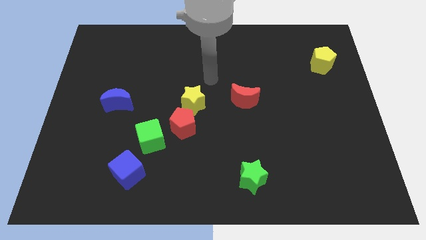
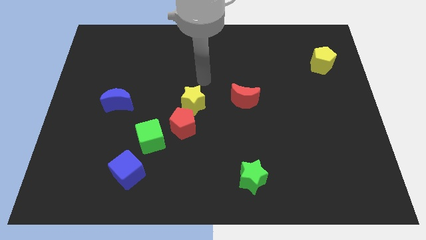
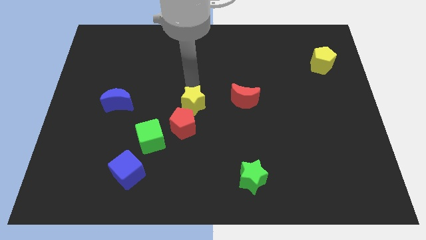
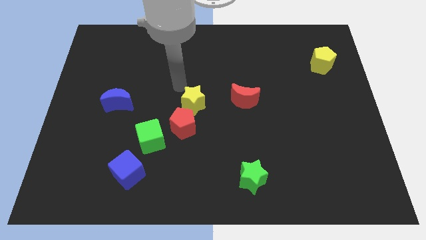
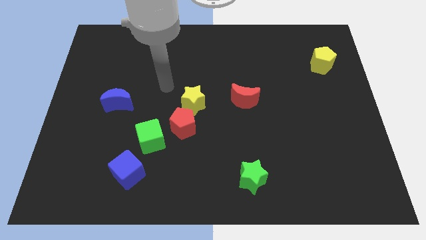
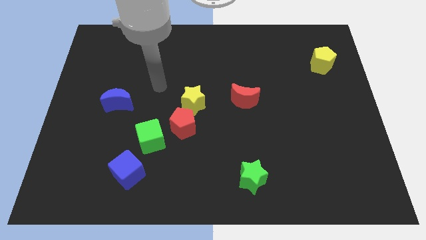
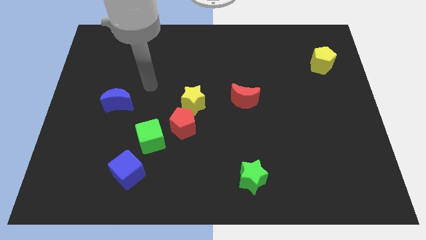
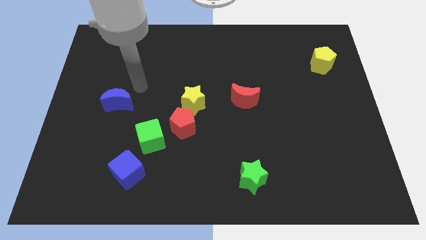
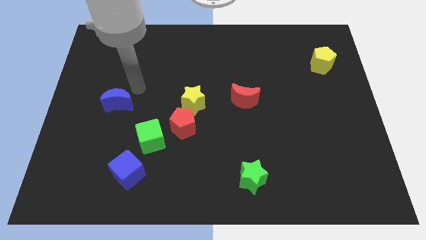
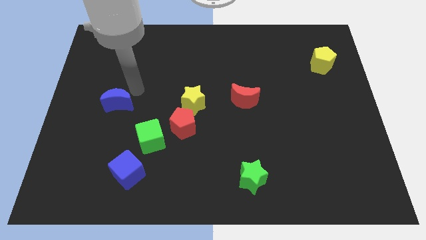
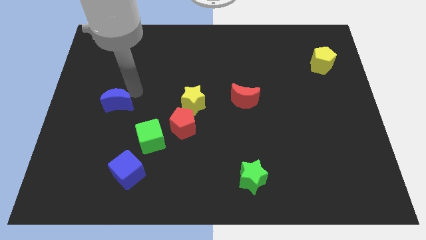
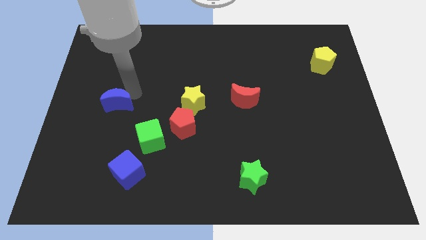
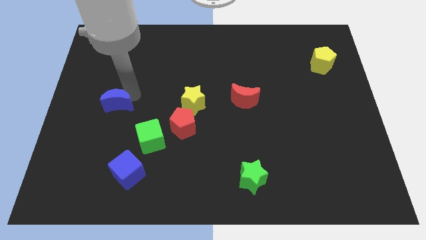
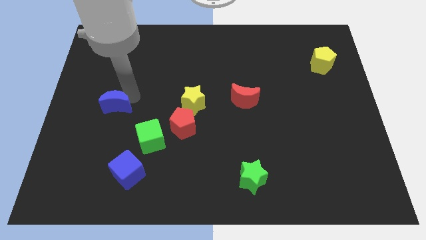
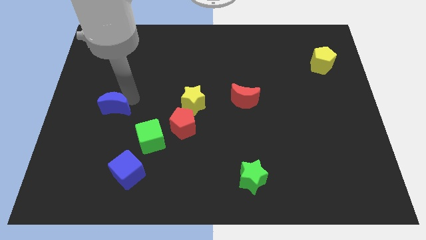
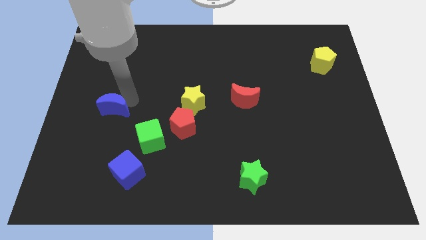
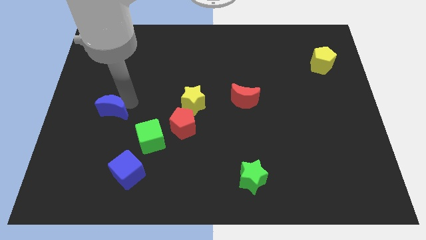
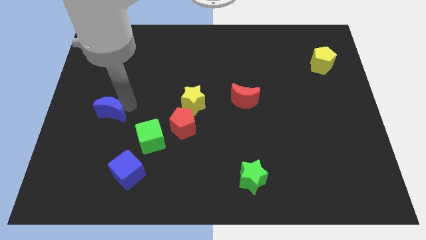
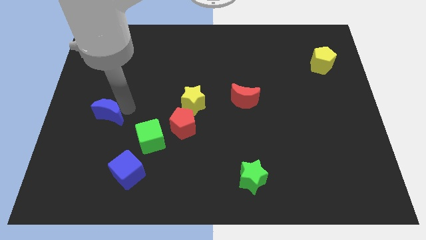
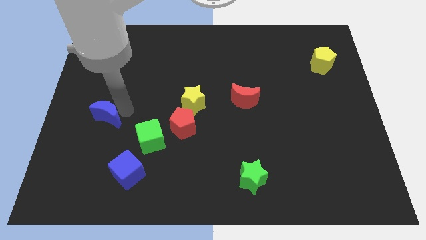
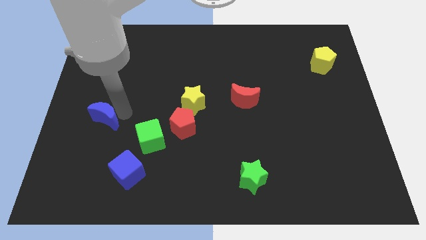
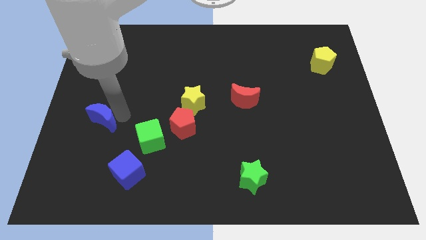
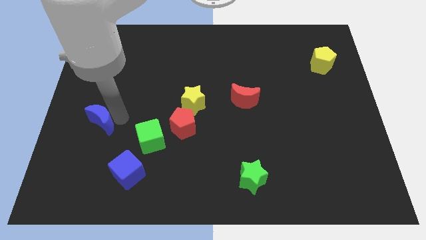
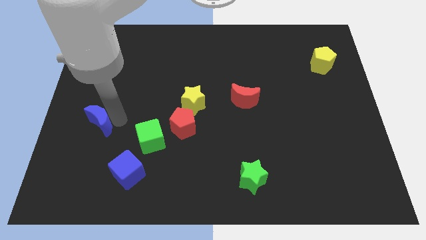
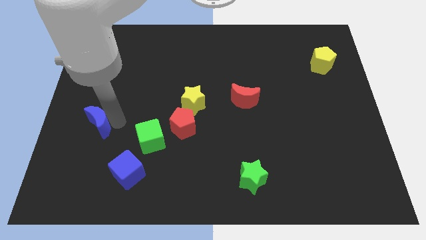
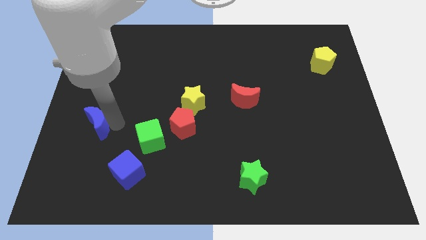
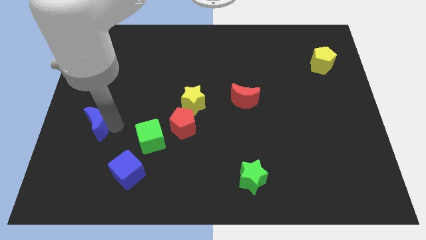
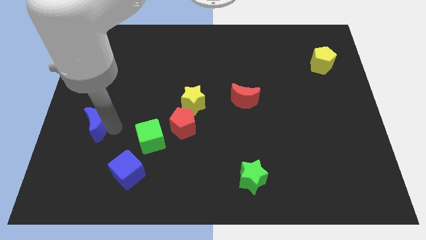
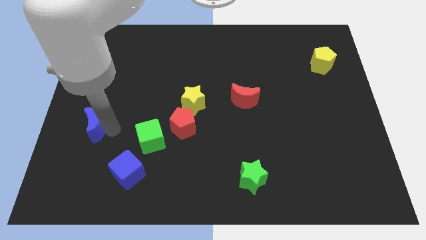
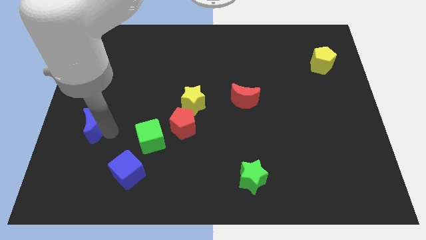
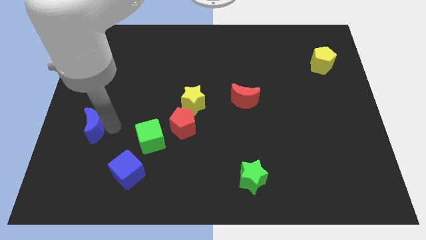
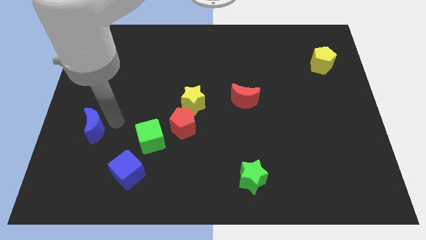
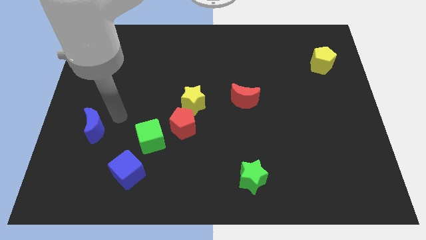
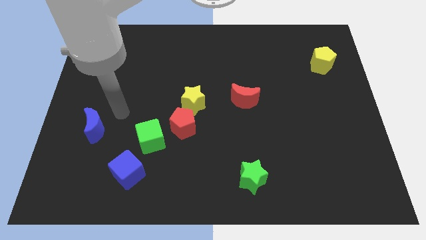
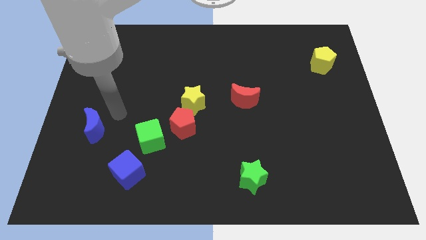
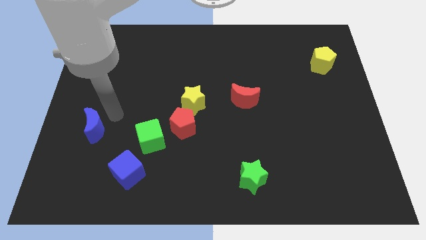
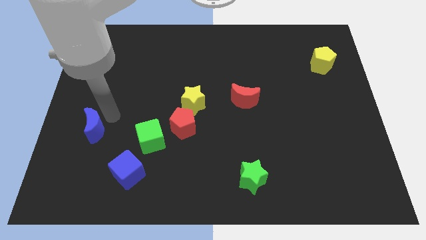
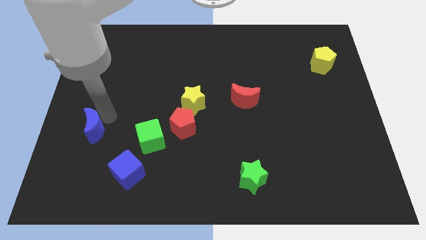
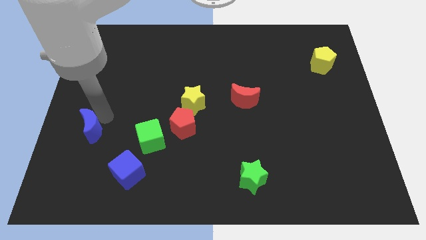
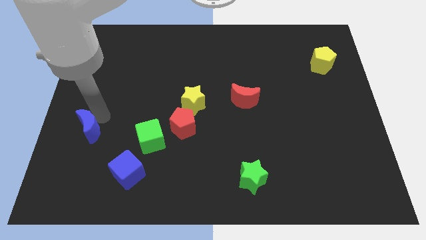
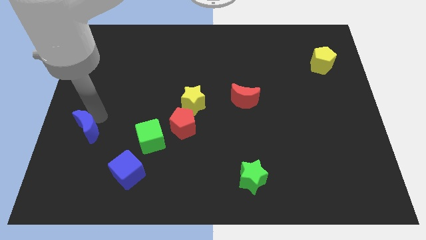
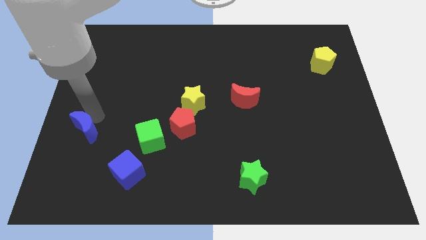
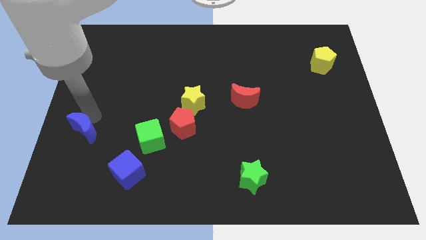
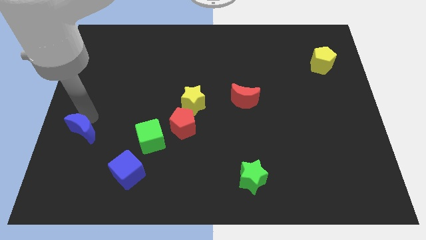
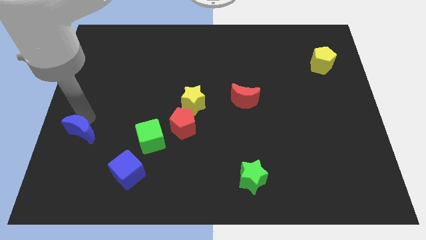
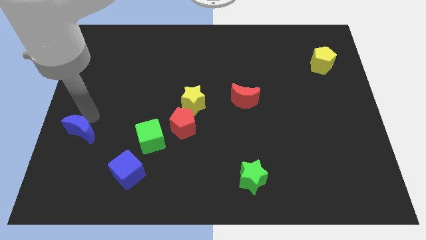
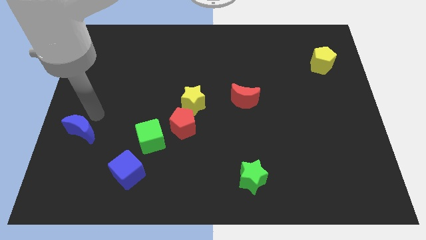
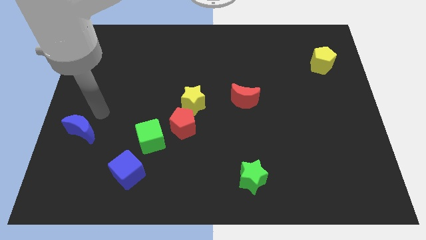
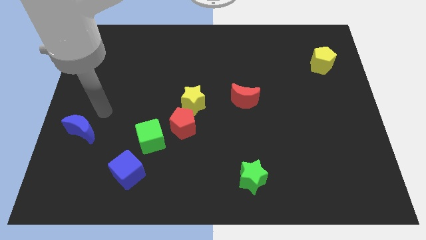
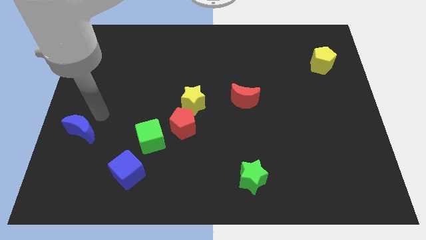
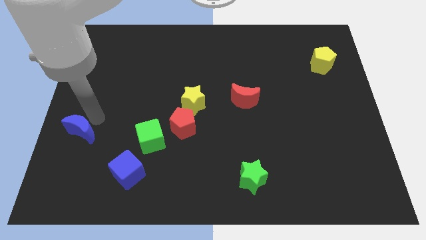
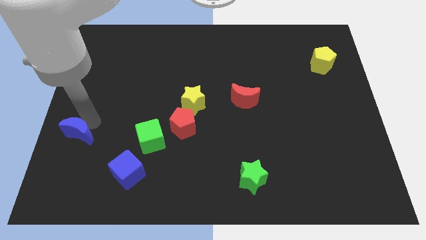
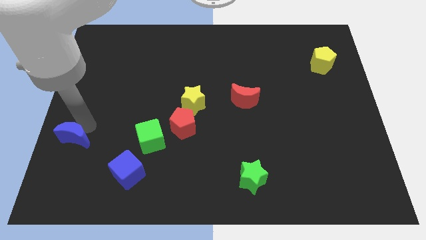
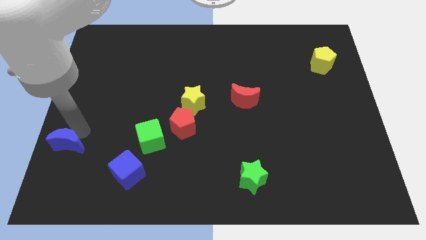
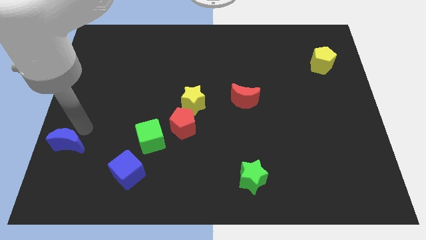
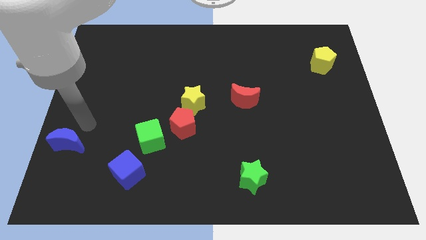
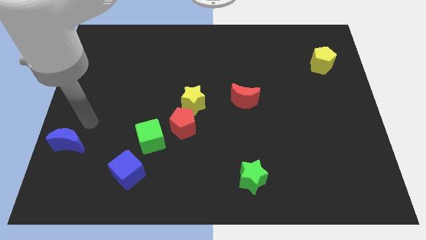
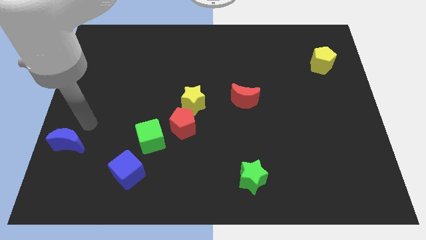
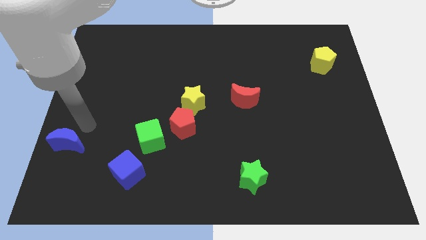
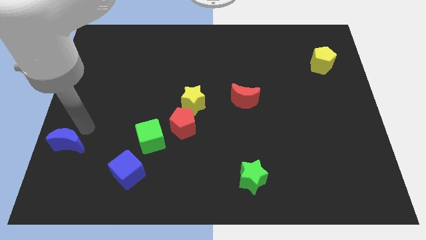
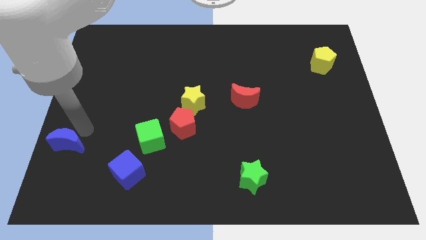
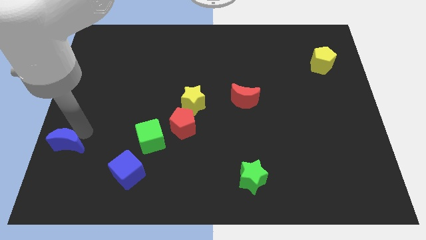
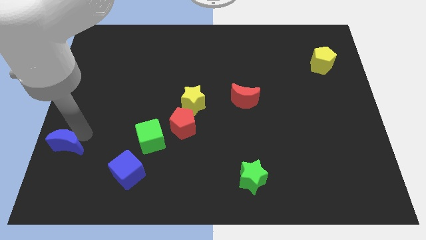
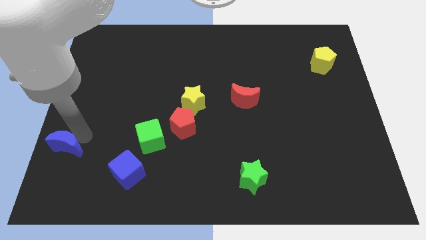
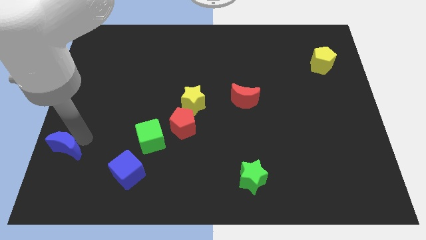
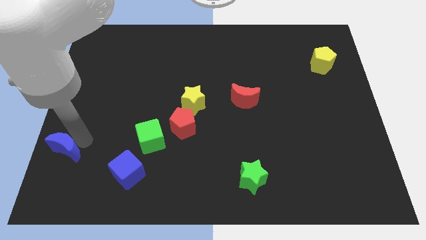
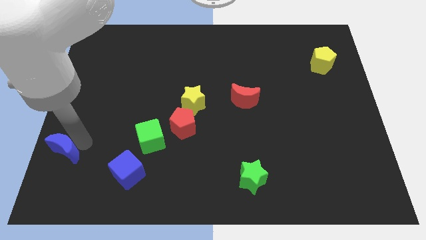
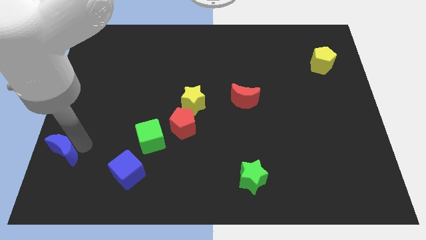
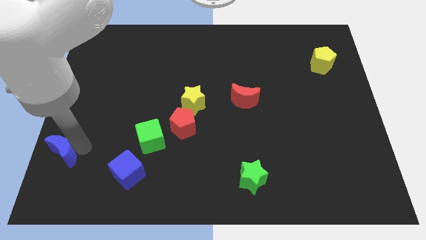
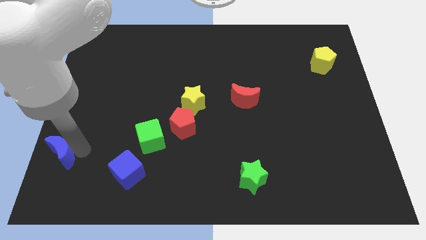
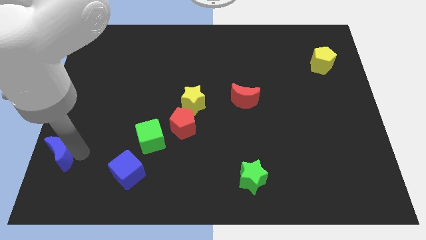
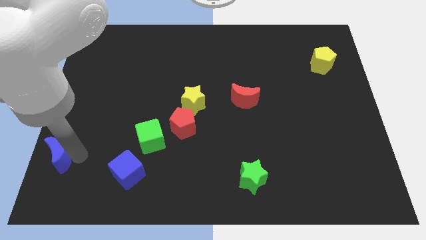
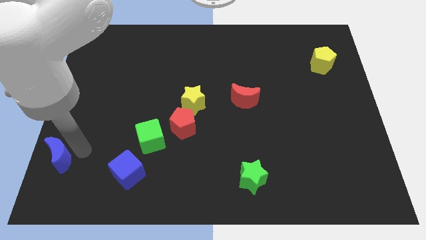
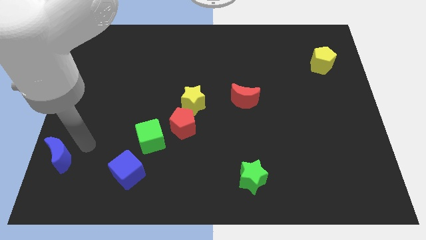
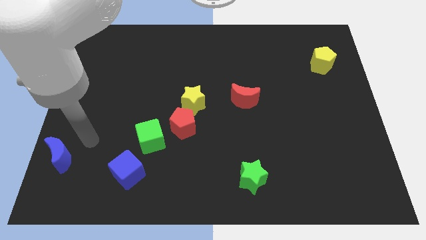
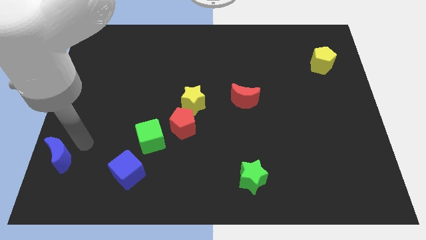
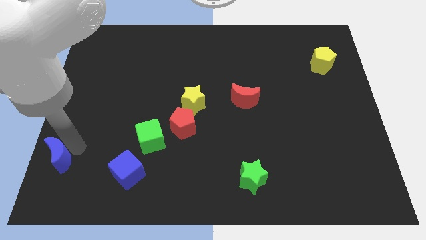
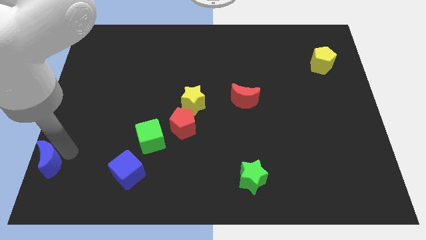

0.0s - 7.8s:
put the blue moon to the lower left corner

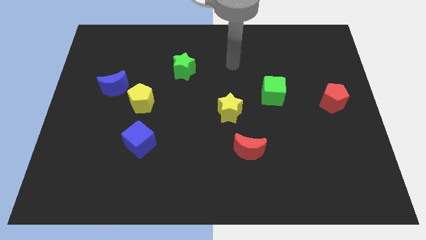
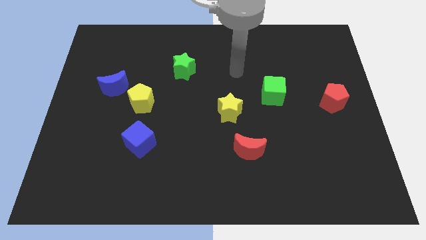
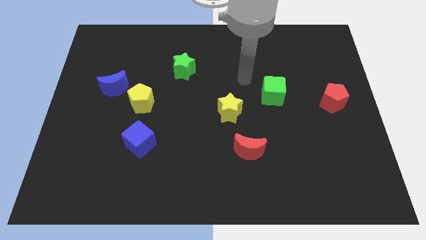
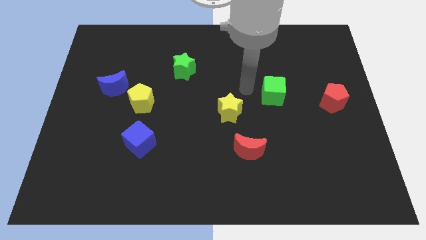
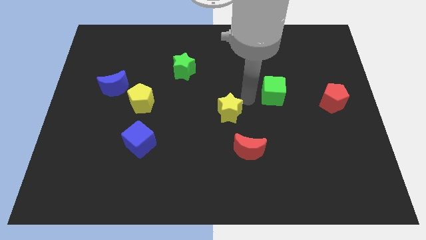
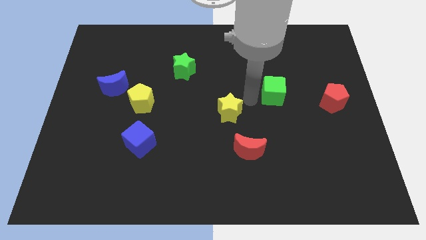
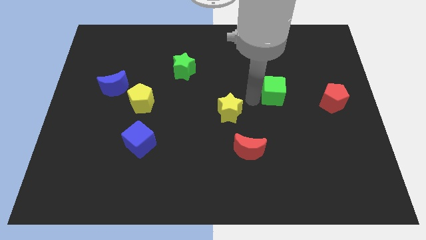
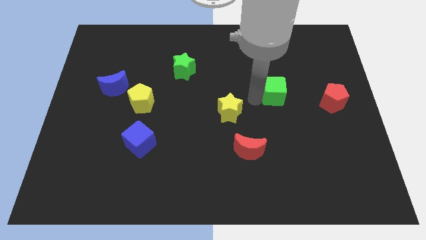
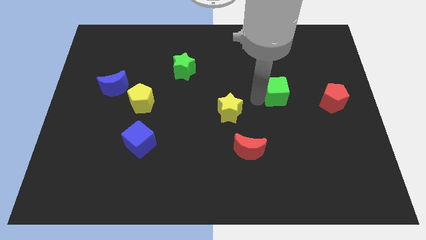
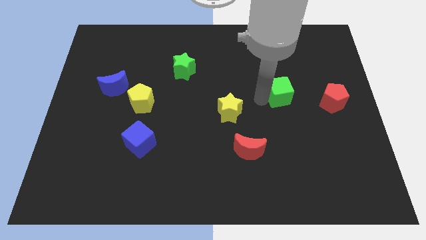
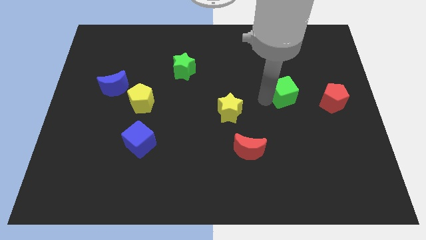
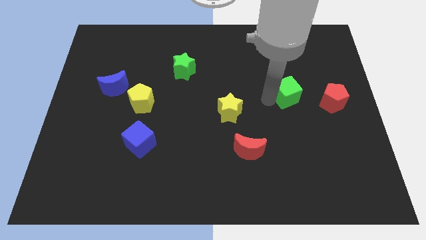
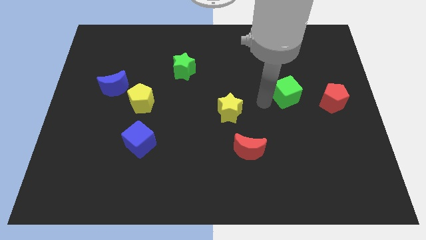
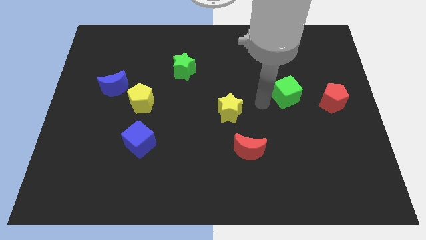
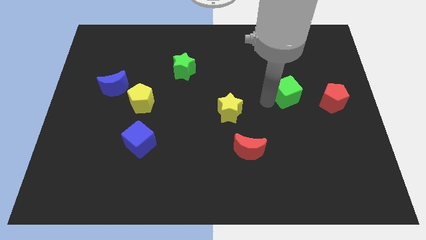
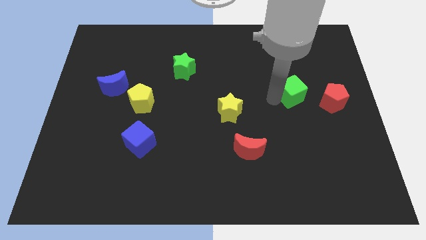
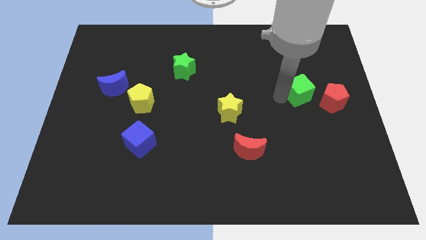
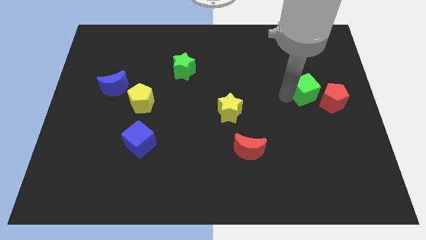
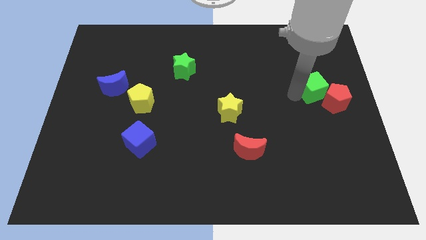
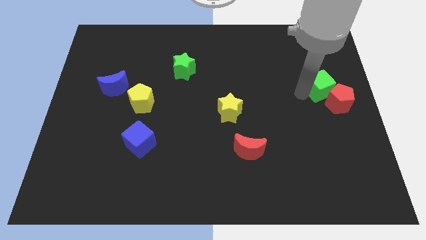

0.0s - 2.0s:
slide the green cube to the right side
